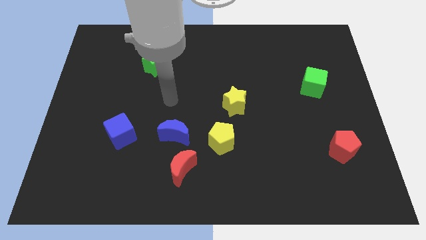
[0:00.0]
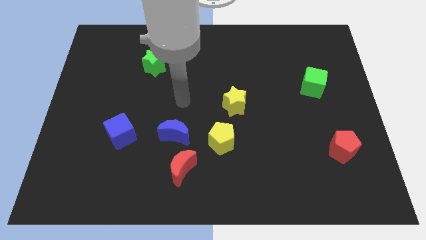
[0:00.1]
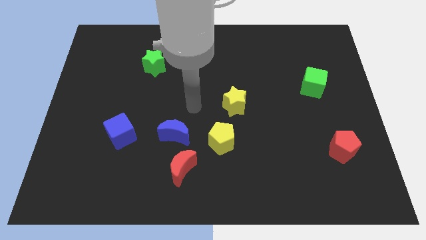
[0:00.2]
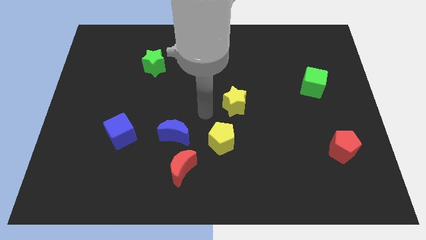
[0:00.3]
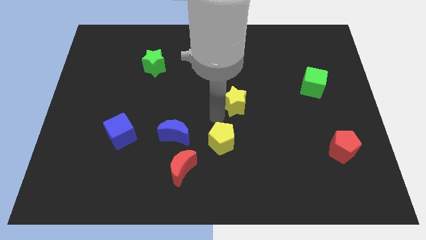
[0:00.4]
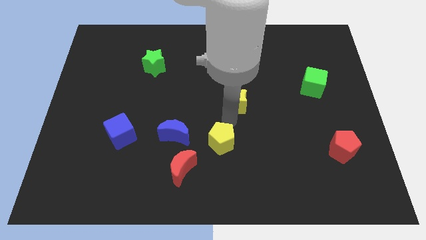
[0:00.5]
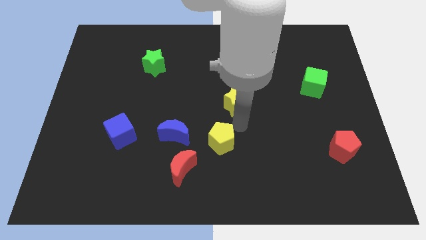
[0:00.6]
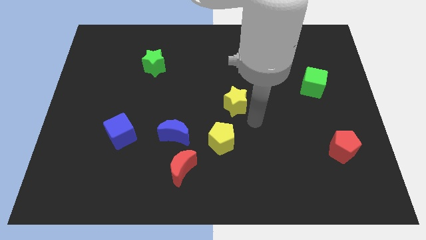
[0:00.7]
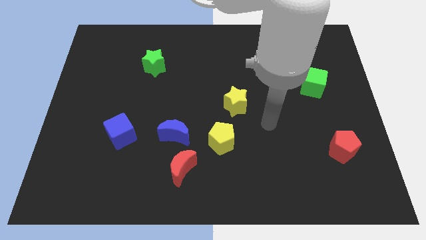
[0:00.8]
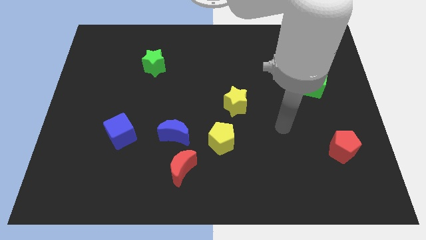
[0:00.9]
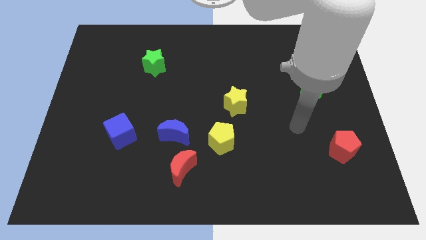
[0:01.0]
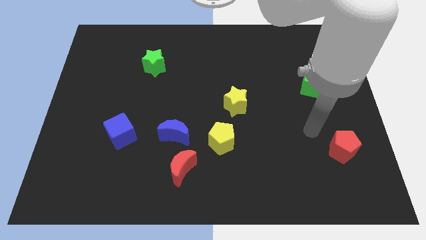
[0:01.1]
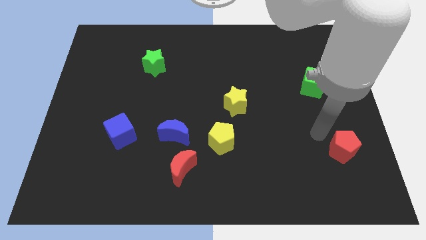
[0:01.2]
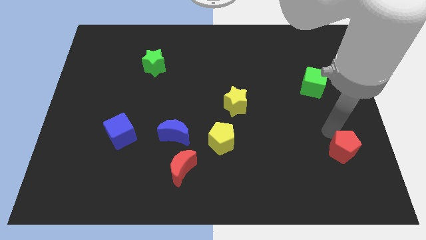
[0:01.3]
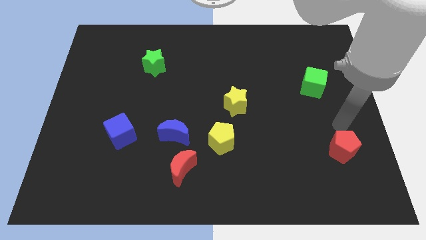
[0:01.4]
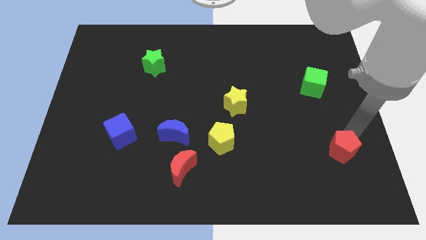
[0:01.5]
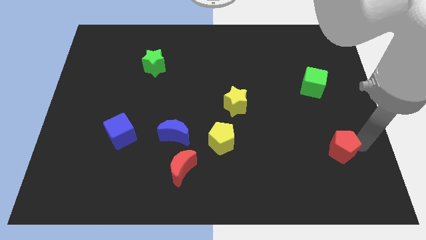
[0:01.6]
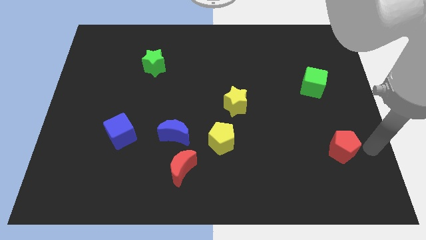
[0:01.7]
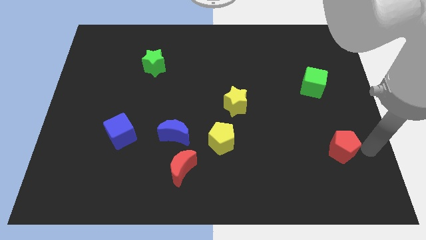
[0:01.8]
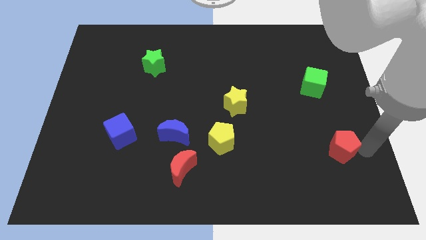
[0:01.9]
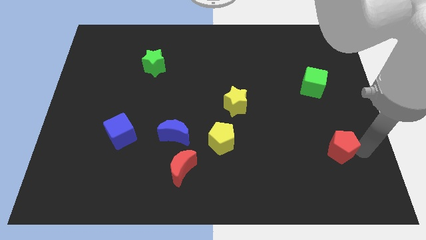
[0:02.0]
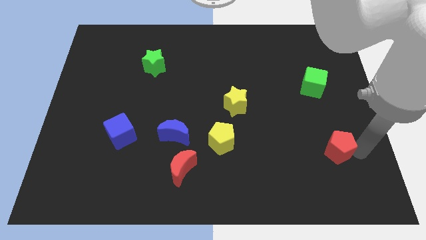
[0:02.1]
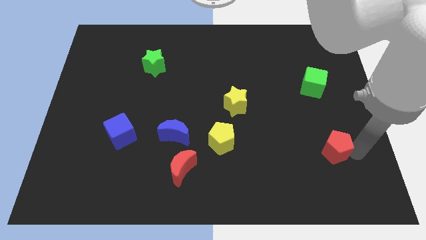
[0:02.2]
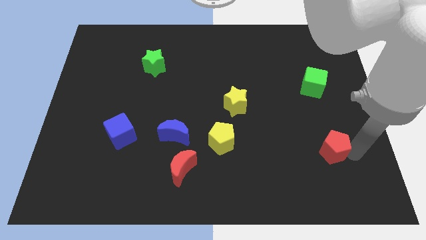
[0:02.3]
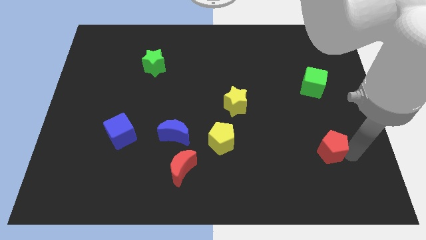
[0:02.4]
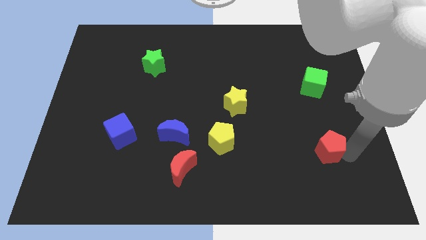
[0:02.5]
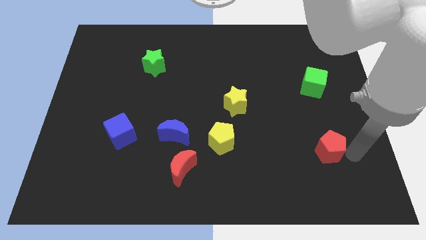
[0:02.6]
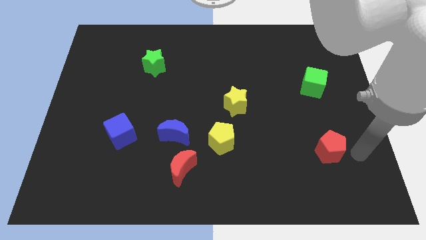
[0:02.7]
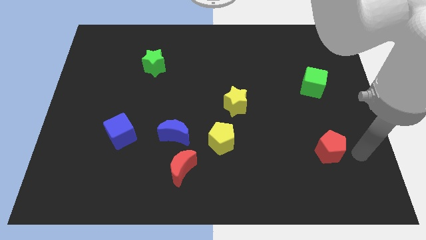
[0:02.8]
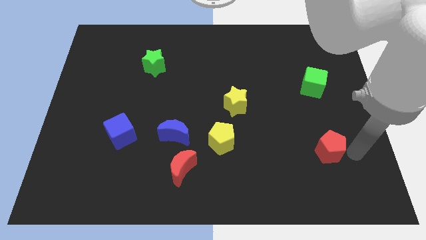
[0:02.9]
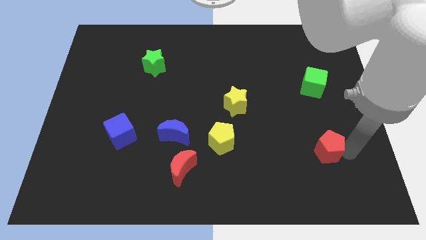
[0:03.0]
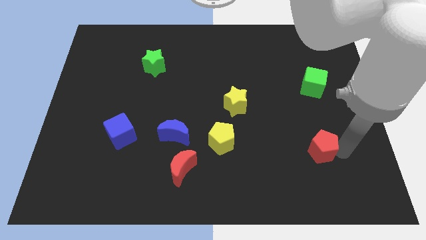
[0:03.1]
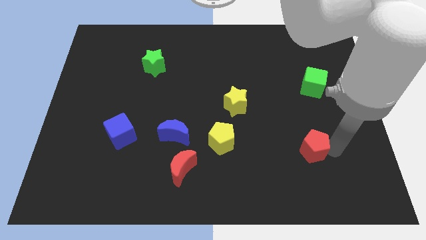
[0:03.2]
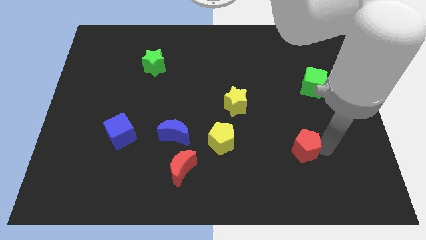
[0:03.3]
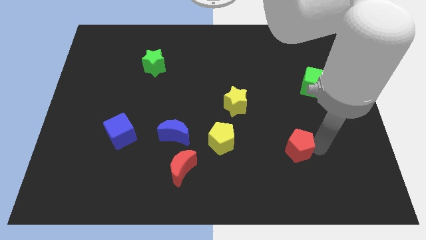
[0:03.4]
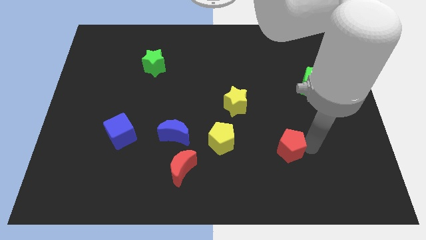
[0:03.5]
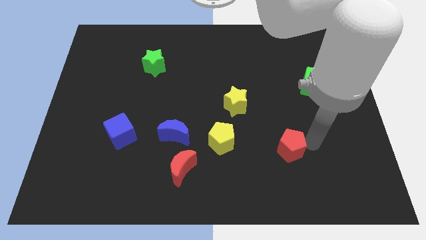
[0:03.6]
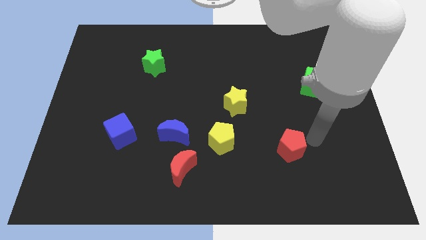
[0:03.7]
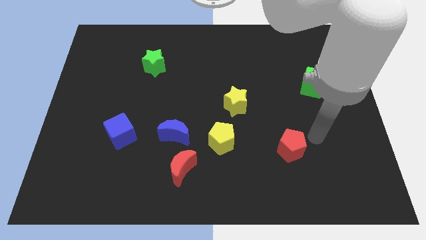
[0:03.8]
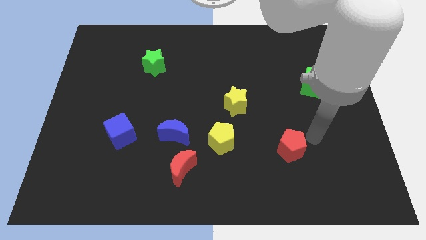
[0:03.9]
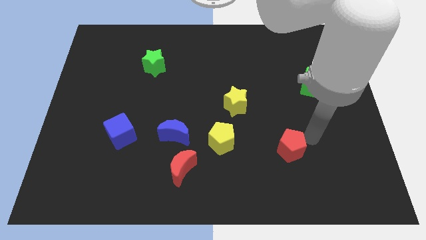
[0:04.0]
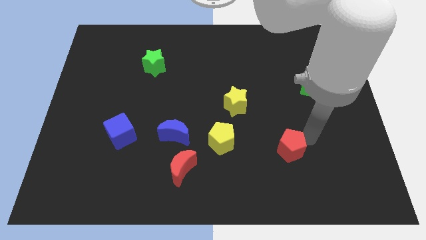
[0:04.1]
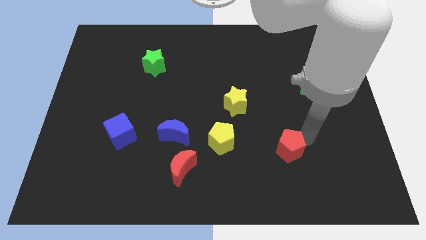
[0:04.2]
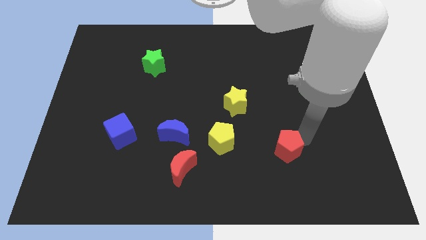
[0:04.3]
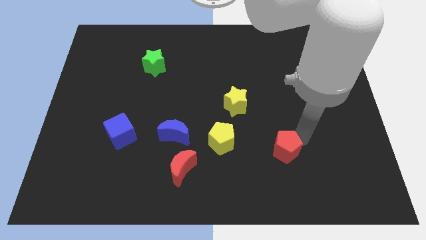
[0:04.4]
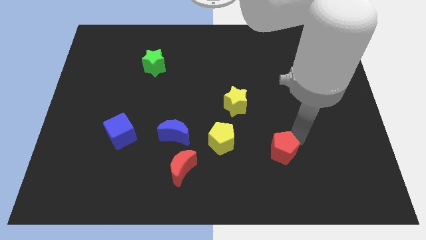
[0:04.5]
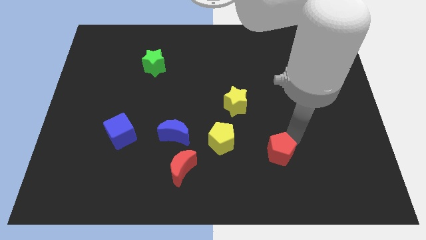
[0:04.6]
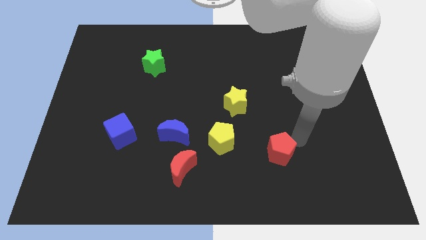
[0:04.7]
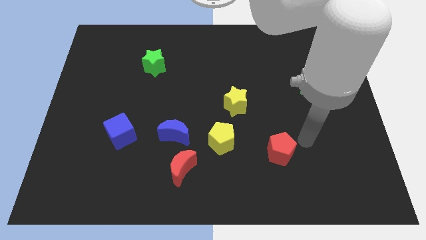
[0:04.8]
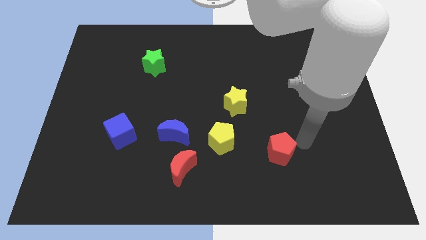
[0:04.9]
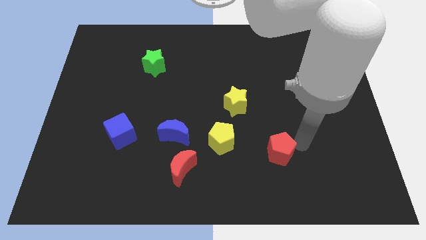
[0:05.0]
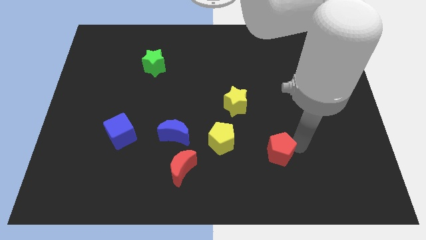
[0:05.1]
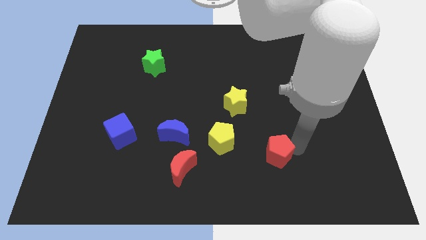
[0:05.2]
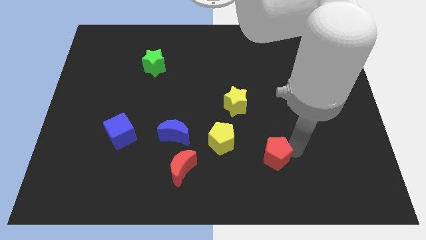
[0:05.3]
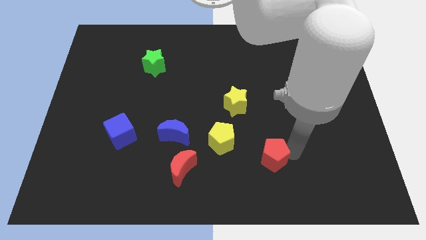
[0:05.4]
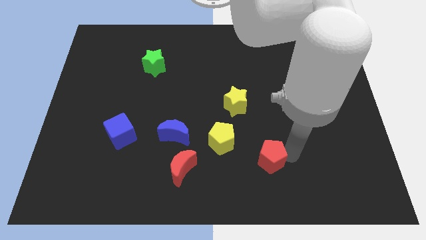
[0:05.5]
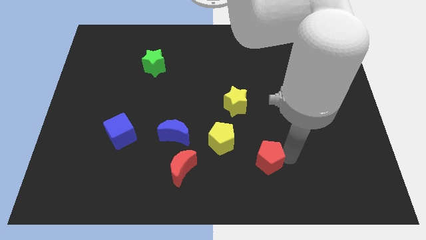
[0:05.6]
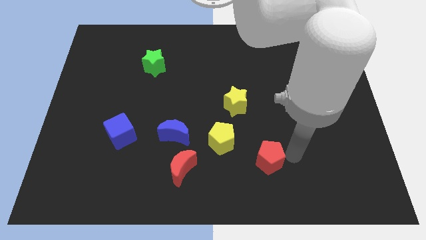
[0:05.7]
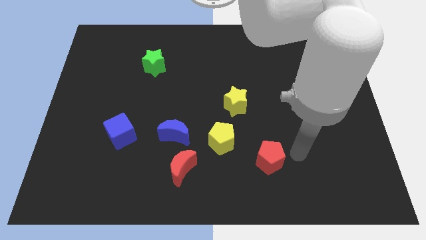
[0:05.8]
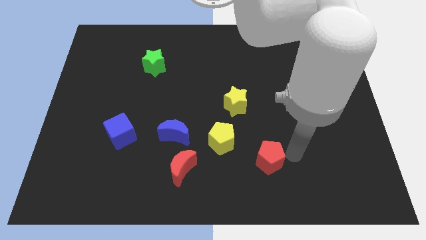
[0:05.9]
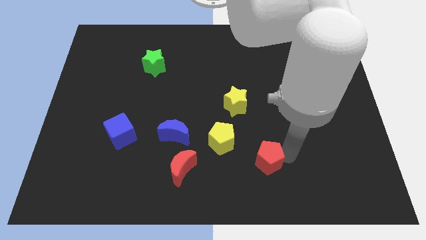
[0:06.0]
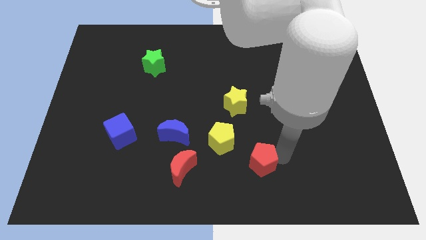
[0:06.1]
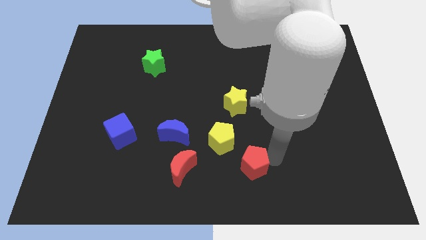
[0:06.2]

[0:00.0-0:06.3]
push the red pentagon right of the red moon
